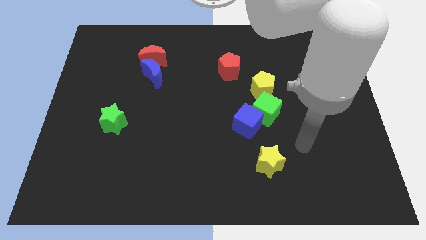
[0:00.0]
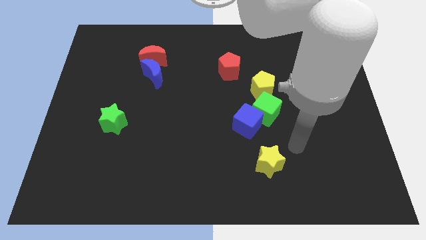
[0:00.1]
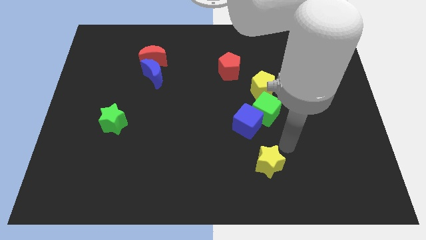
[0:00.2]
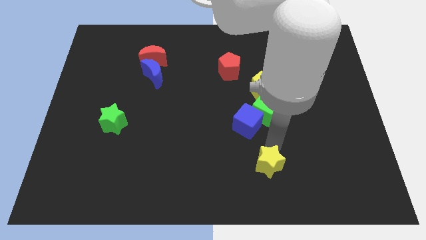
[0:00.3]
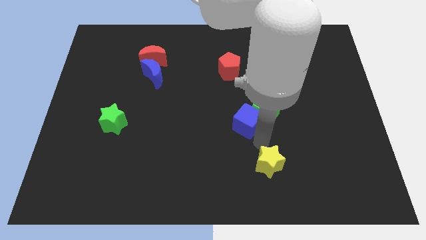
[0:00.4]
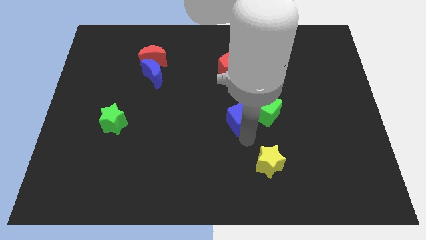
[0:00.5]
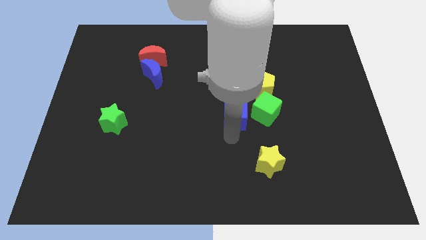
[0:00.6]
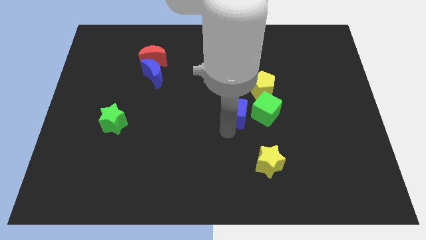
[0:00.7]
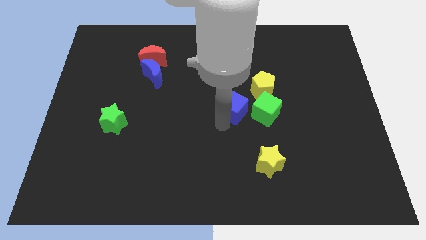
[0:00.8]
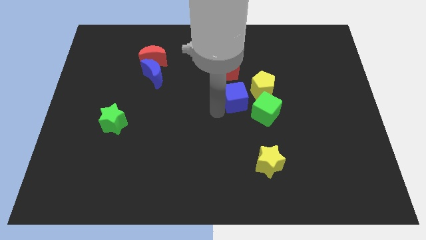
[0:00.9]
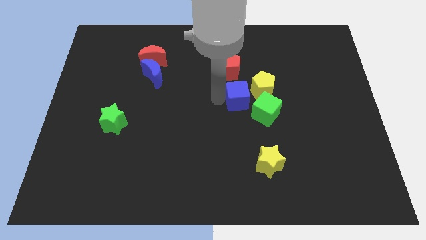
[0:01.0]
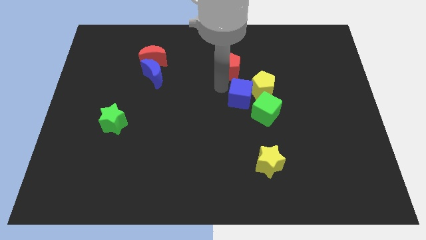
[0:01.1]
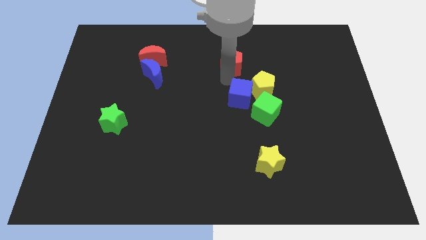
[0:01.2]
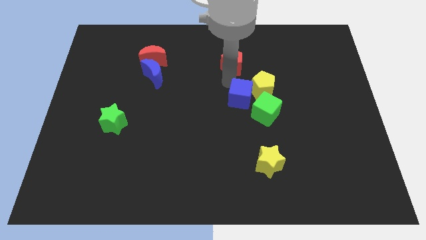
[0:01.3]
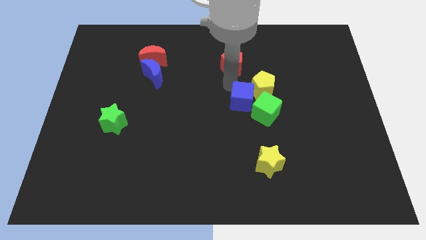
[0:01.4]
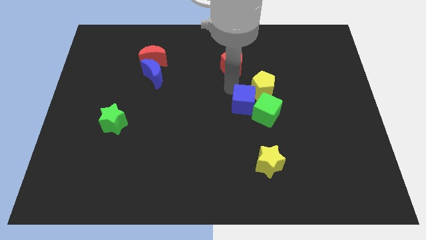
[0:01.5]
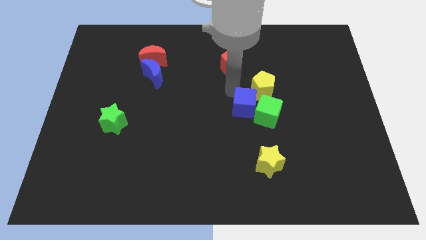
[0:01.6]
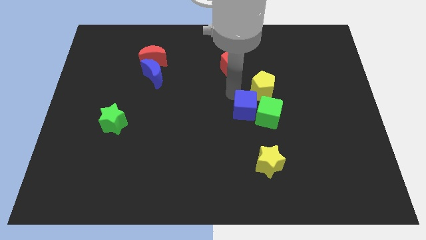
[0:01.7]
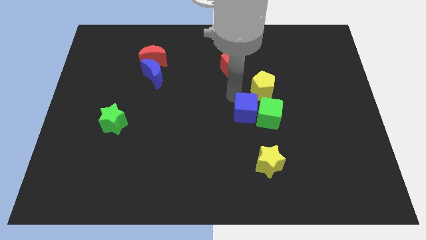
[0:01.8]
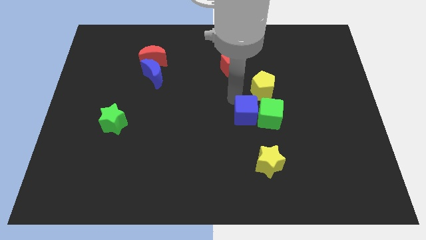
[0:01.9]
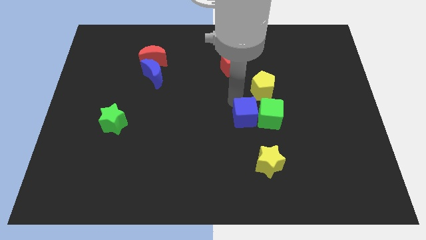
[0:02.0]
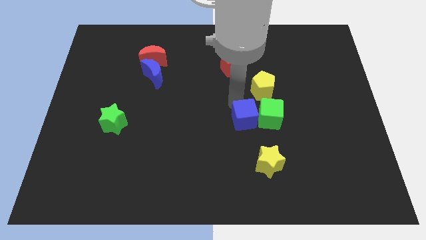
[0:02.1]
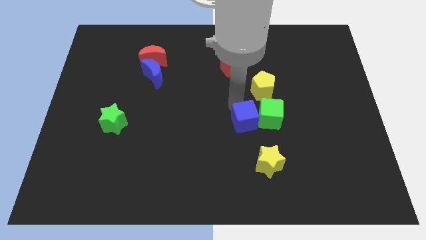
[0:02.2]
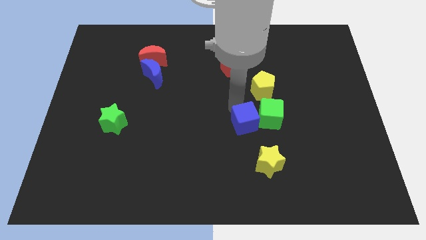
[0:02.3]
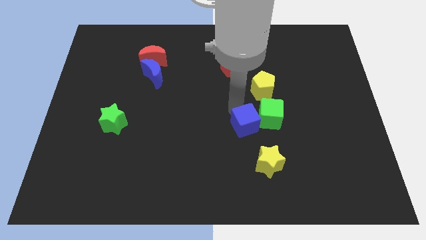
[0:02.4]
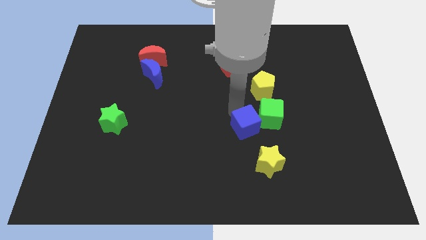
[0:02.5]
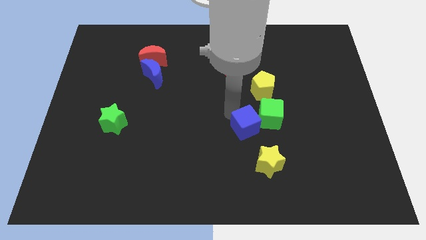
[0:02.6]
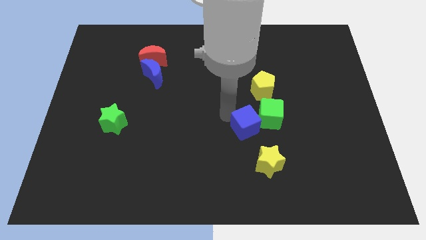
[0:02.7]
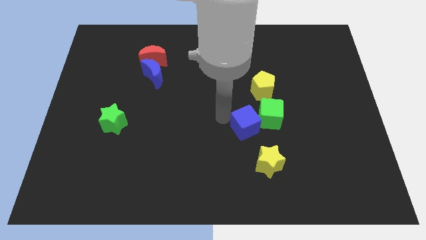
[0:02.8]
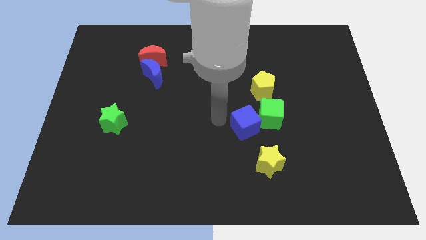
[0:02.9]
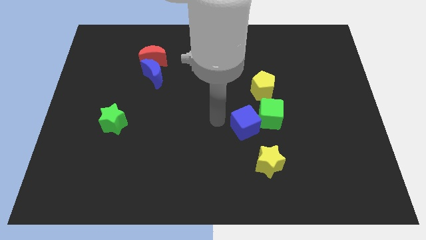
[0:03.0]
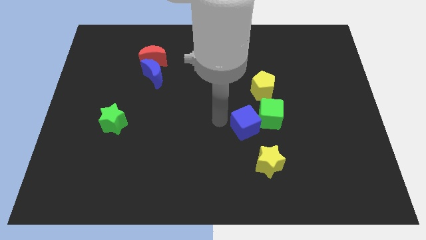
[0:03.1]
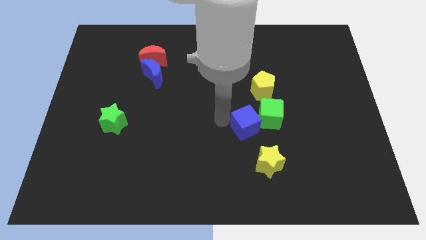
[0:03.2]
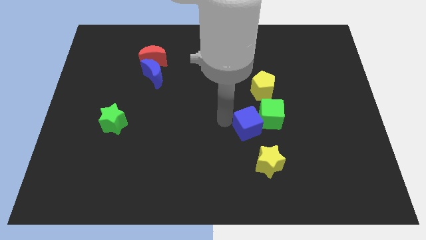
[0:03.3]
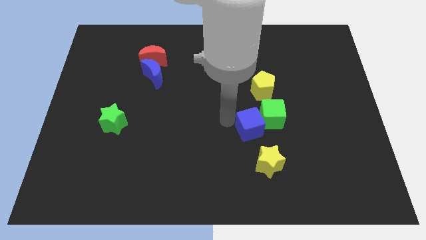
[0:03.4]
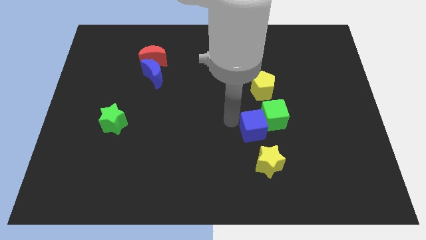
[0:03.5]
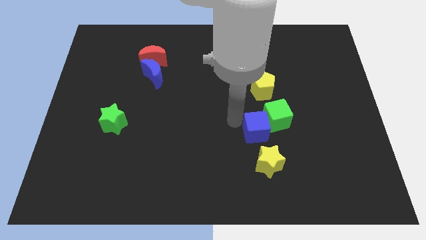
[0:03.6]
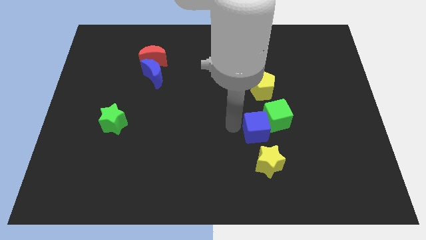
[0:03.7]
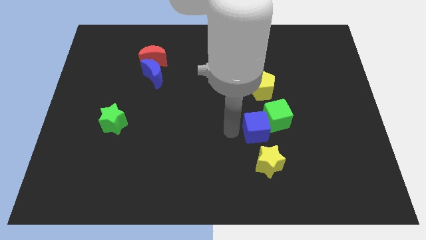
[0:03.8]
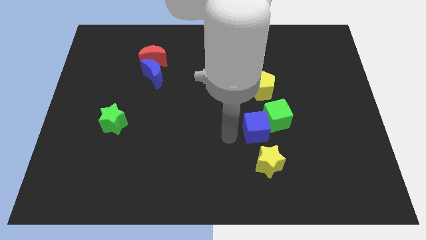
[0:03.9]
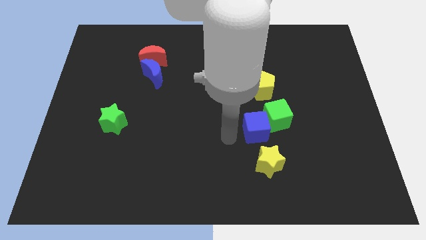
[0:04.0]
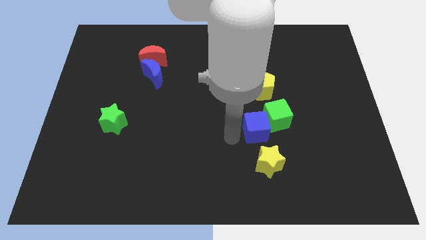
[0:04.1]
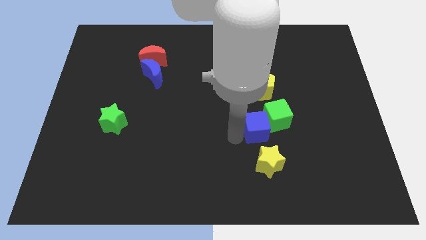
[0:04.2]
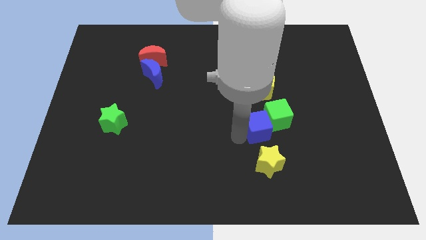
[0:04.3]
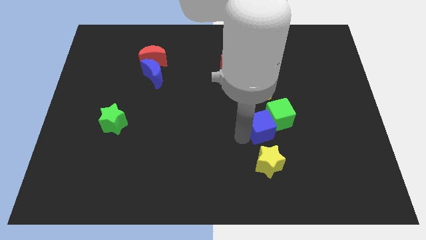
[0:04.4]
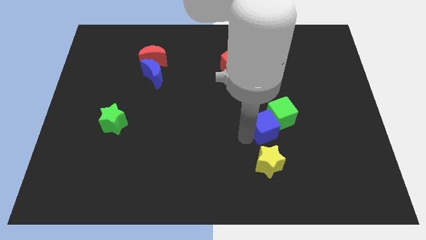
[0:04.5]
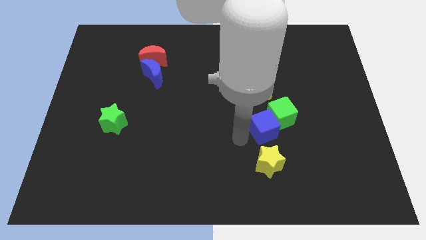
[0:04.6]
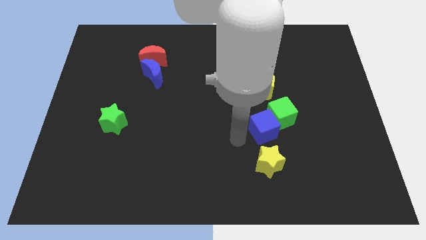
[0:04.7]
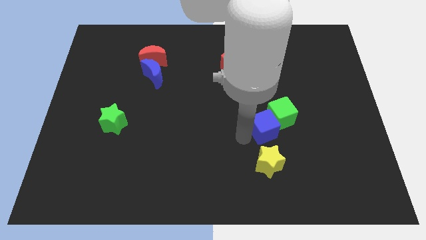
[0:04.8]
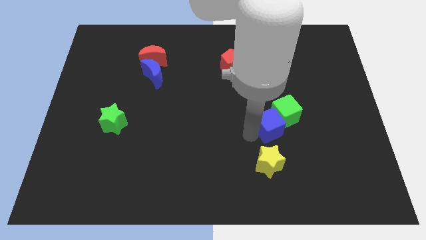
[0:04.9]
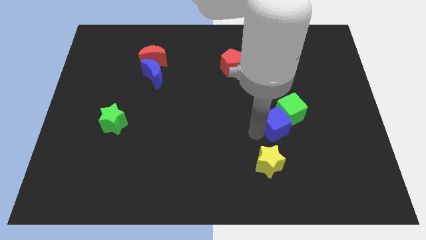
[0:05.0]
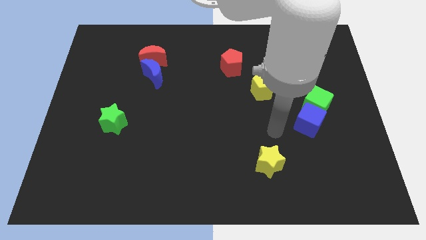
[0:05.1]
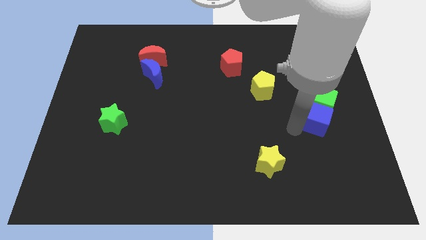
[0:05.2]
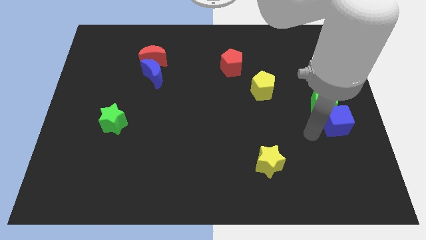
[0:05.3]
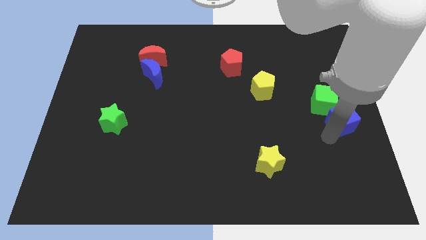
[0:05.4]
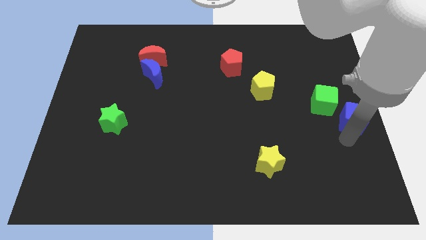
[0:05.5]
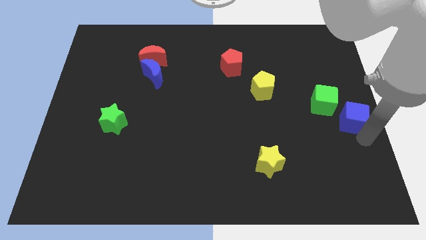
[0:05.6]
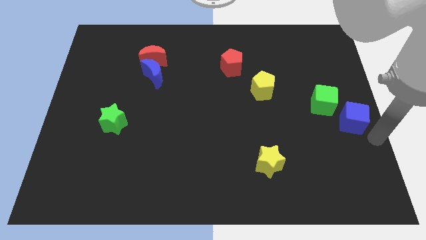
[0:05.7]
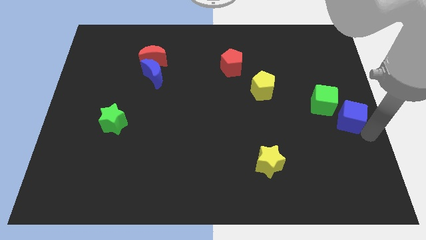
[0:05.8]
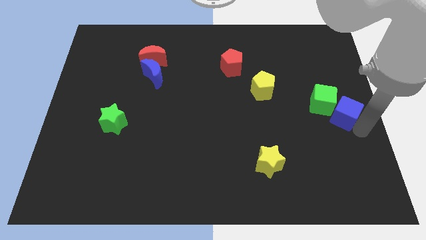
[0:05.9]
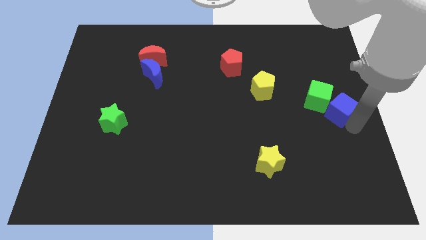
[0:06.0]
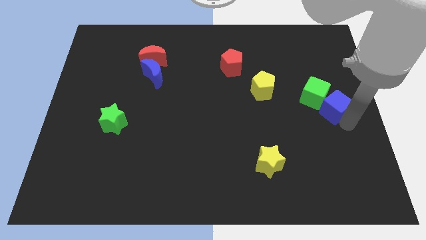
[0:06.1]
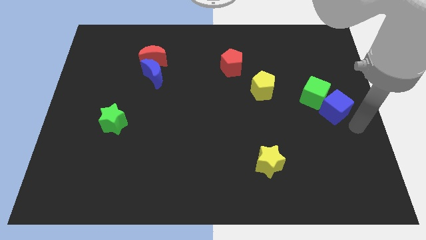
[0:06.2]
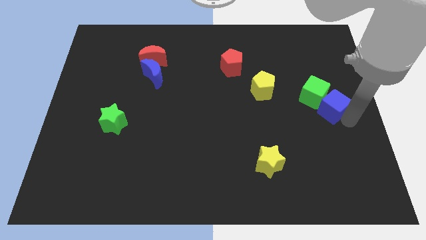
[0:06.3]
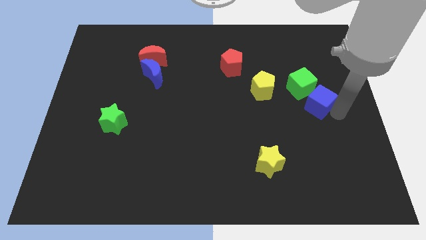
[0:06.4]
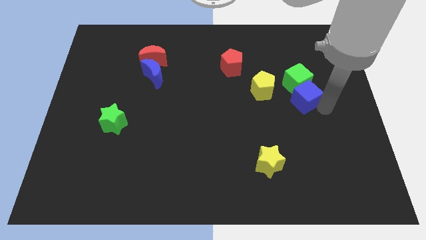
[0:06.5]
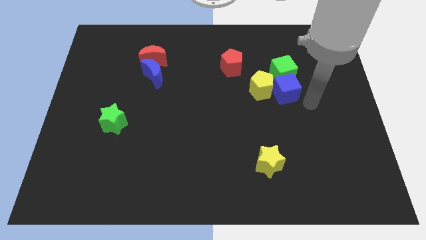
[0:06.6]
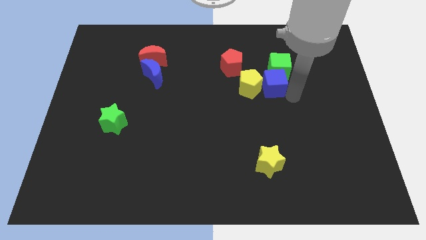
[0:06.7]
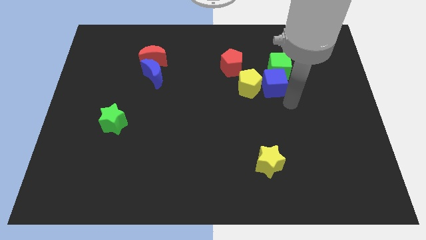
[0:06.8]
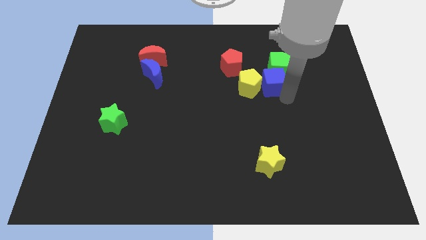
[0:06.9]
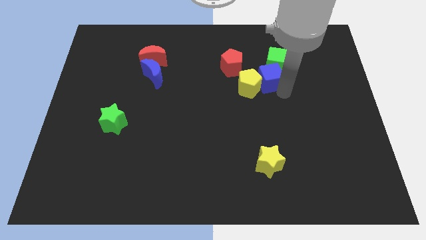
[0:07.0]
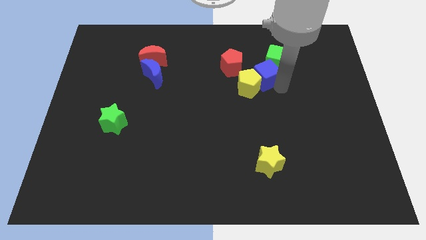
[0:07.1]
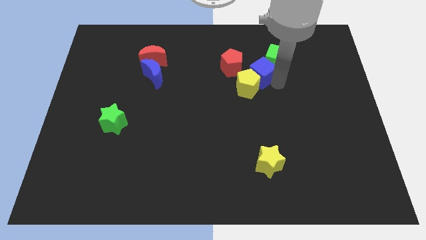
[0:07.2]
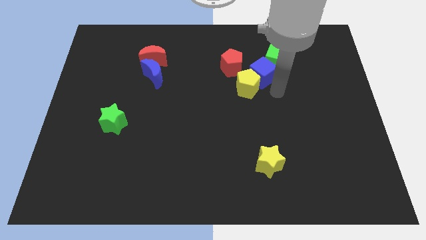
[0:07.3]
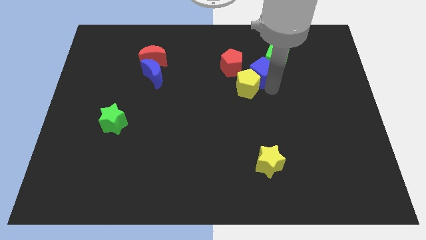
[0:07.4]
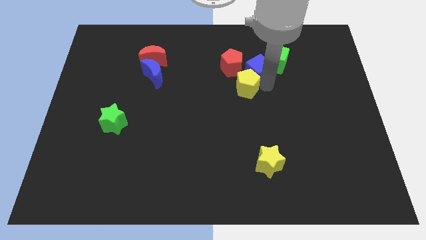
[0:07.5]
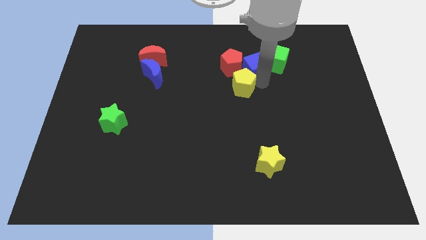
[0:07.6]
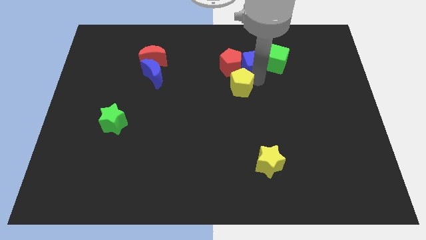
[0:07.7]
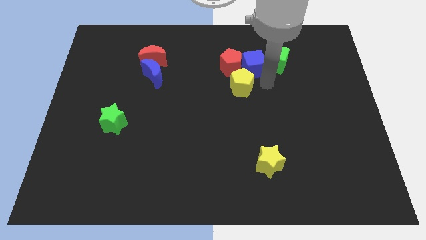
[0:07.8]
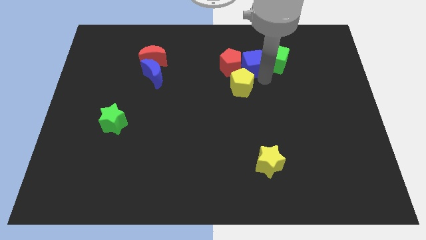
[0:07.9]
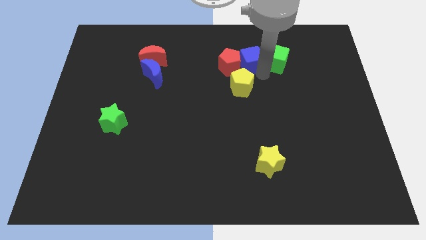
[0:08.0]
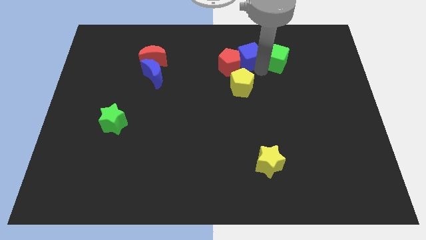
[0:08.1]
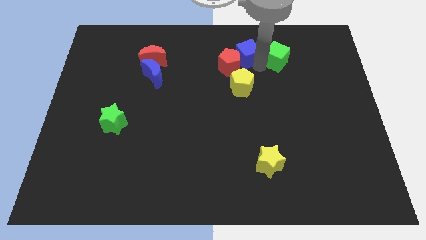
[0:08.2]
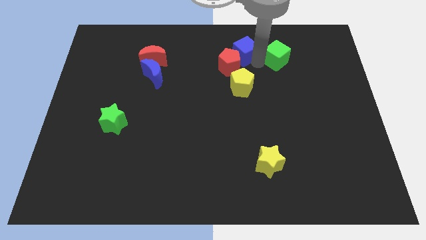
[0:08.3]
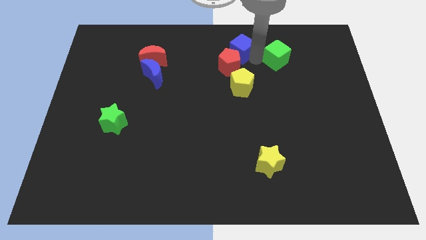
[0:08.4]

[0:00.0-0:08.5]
move the blue cube to the top
